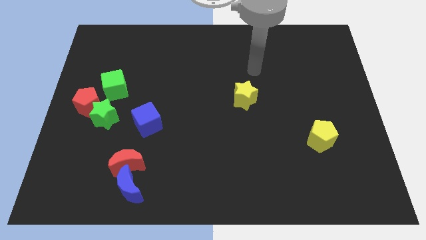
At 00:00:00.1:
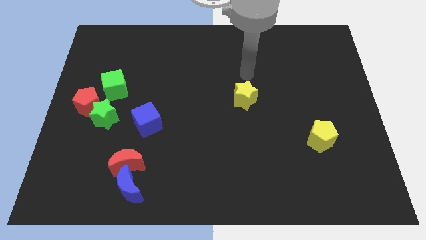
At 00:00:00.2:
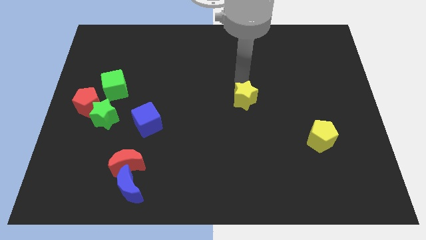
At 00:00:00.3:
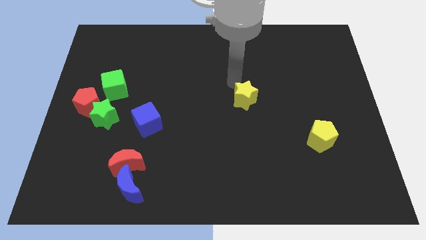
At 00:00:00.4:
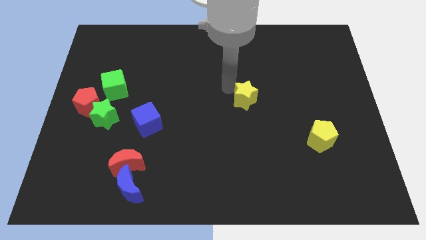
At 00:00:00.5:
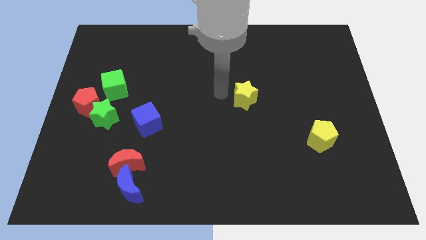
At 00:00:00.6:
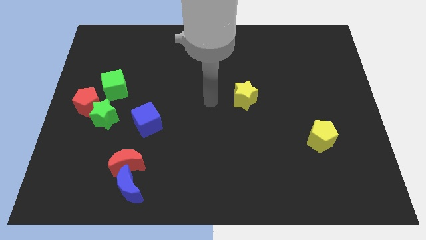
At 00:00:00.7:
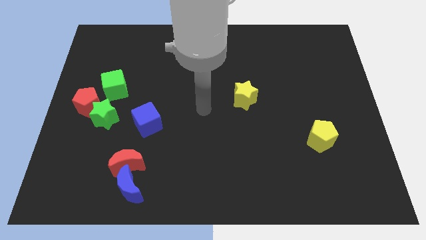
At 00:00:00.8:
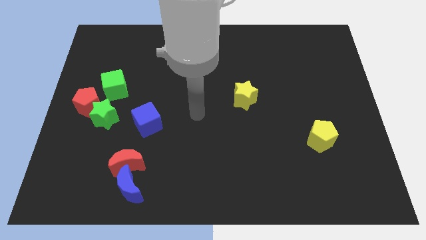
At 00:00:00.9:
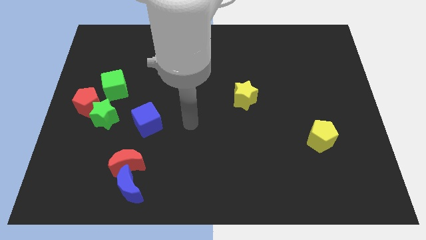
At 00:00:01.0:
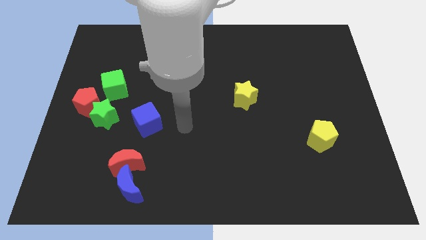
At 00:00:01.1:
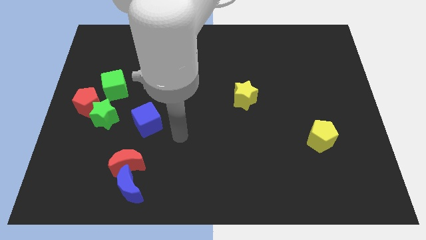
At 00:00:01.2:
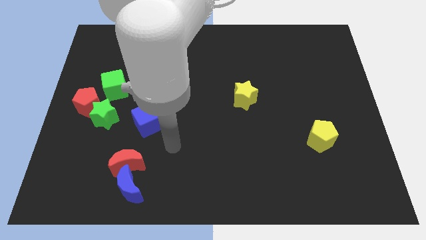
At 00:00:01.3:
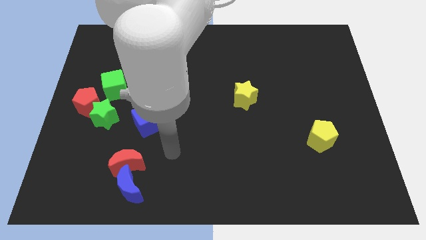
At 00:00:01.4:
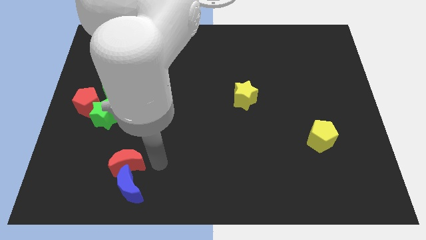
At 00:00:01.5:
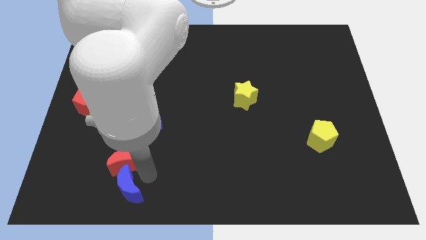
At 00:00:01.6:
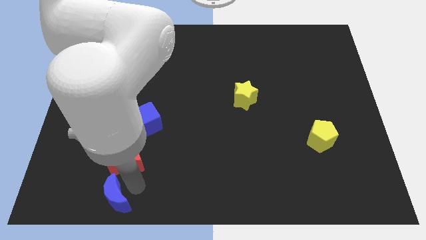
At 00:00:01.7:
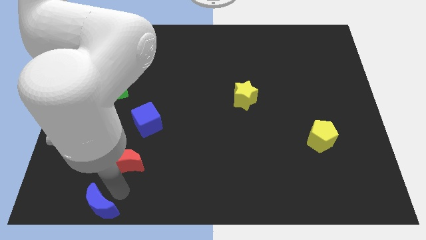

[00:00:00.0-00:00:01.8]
pull the red moon apart from the blue moon

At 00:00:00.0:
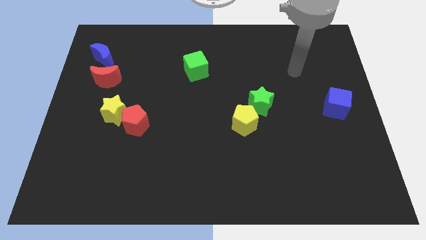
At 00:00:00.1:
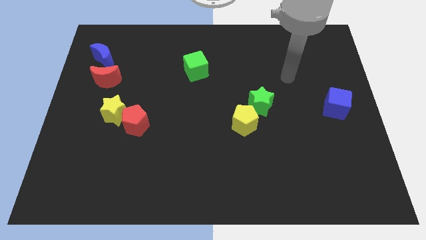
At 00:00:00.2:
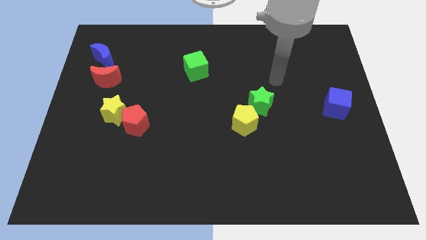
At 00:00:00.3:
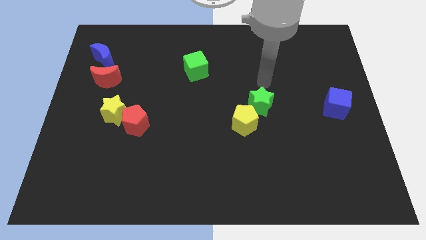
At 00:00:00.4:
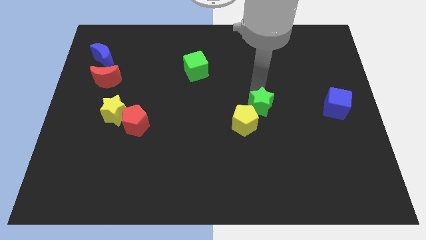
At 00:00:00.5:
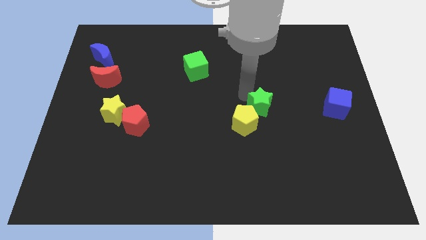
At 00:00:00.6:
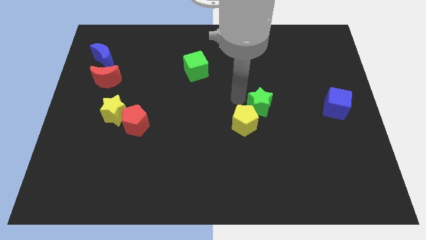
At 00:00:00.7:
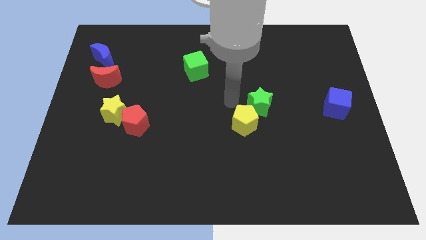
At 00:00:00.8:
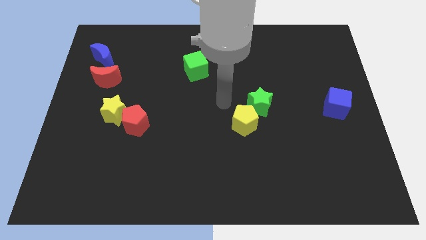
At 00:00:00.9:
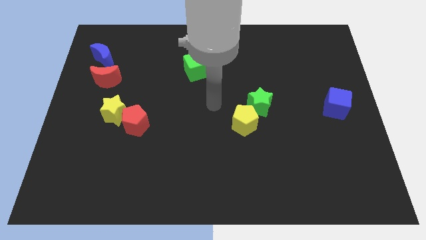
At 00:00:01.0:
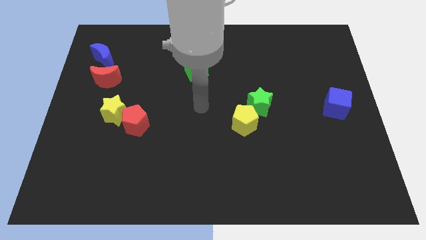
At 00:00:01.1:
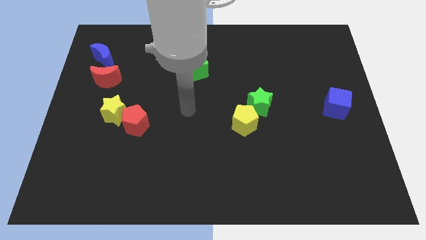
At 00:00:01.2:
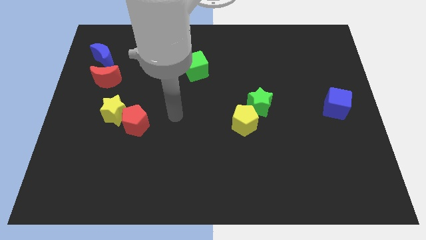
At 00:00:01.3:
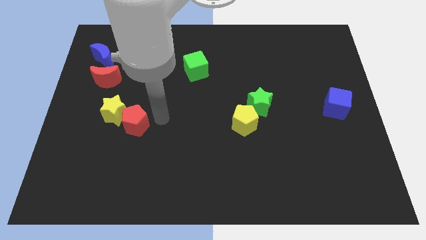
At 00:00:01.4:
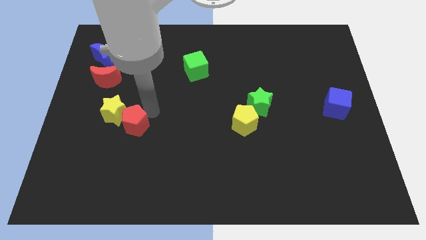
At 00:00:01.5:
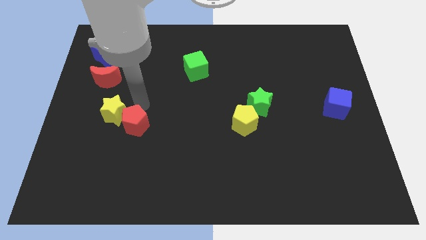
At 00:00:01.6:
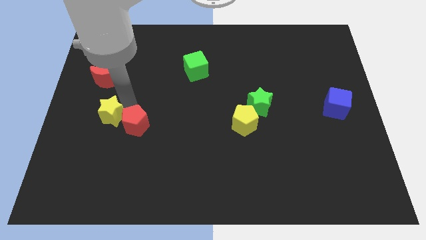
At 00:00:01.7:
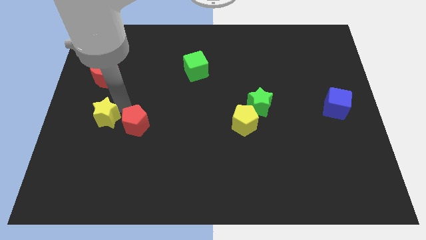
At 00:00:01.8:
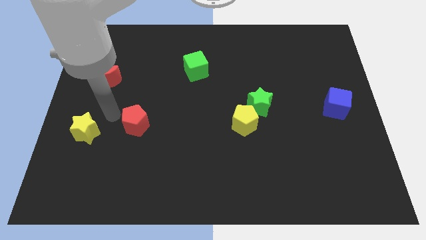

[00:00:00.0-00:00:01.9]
move the red pentagon away from the yellow star

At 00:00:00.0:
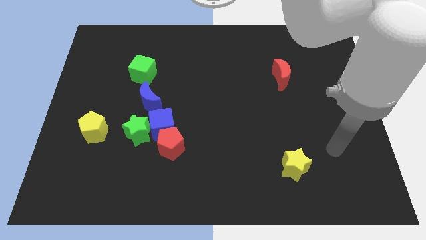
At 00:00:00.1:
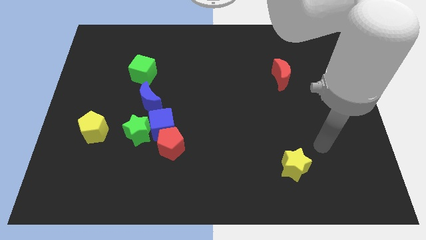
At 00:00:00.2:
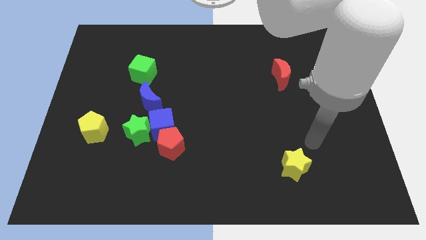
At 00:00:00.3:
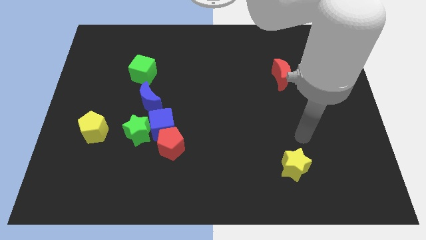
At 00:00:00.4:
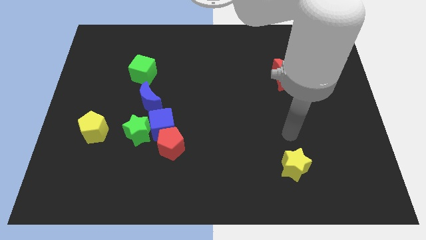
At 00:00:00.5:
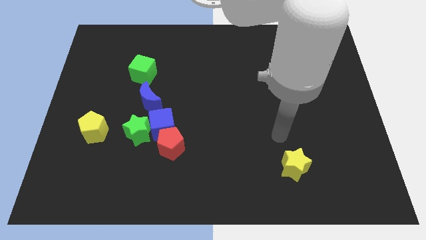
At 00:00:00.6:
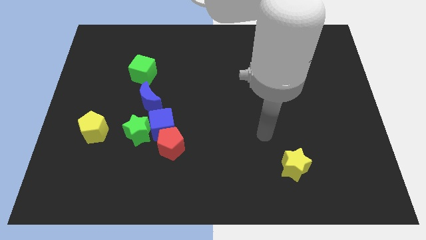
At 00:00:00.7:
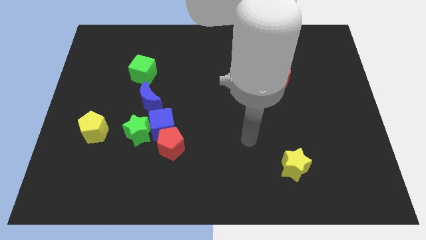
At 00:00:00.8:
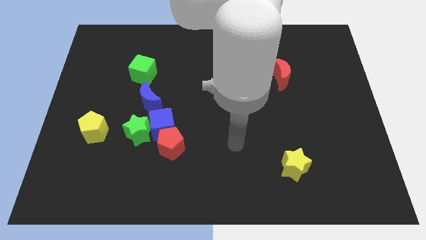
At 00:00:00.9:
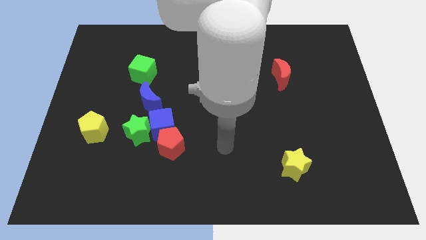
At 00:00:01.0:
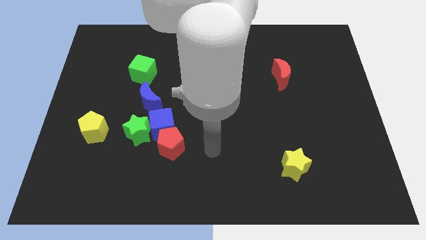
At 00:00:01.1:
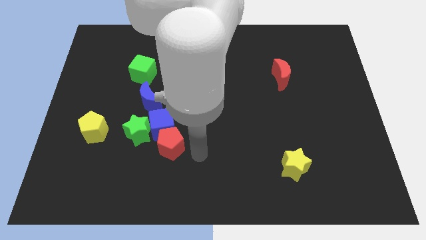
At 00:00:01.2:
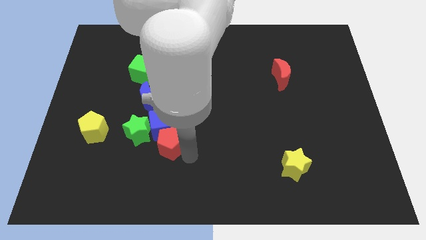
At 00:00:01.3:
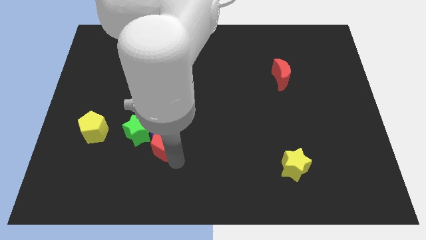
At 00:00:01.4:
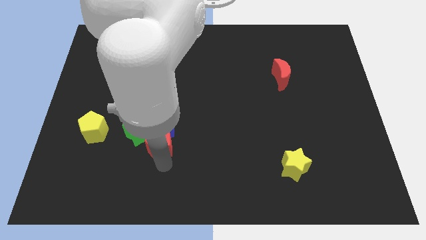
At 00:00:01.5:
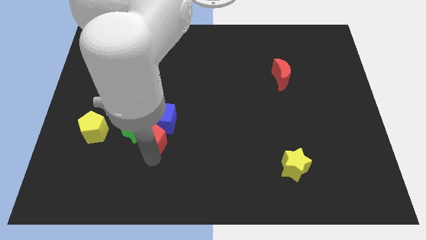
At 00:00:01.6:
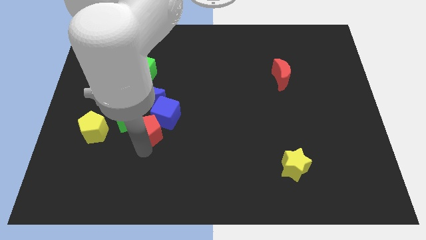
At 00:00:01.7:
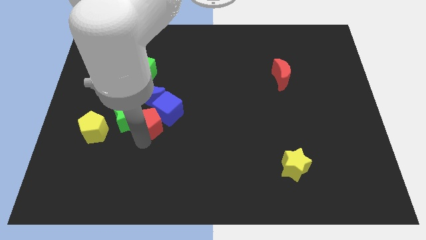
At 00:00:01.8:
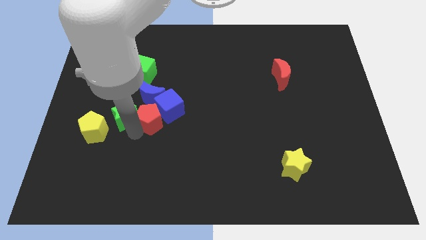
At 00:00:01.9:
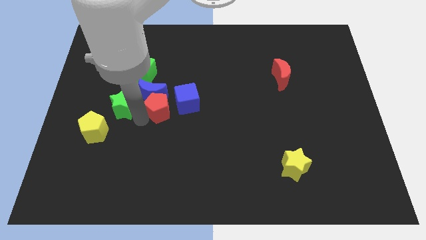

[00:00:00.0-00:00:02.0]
separate the blue cube from the red pentagon, green star, and blue moon

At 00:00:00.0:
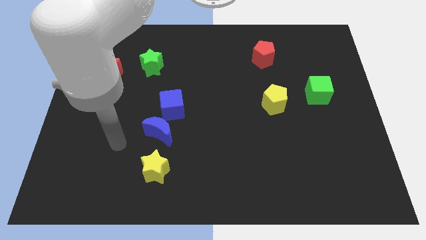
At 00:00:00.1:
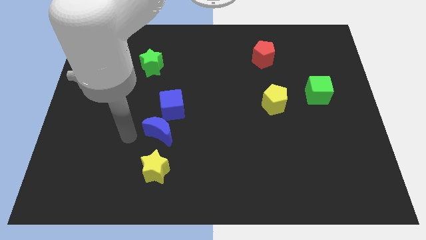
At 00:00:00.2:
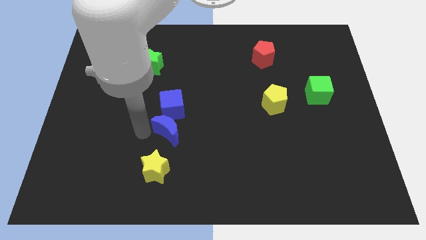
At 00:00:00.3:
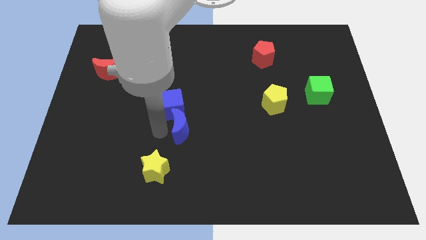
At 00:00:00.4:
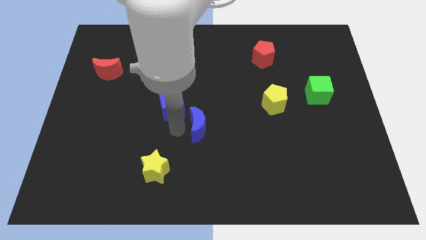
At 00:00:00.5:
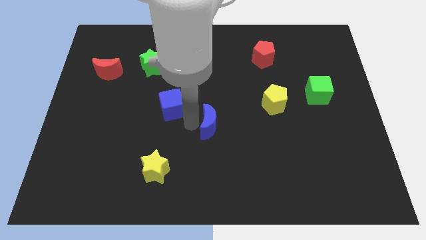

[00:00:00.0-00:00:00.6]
move the blue cube away from the blue moon

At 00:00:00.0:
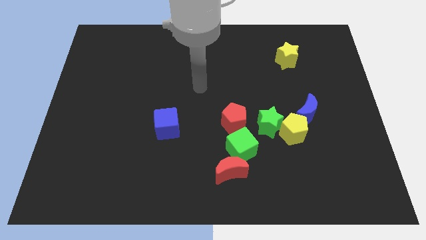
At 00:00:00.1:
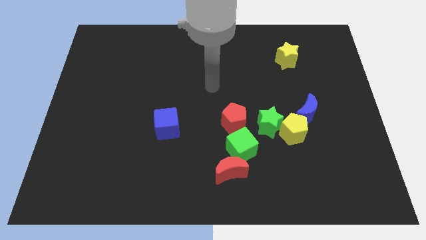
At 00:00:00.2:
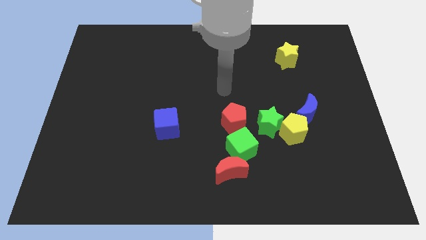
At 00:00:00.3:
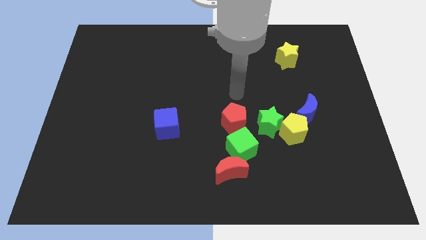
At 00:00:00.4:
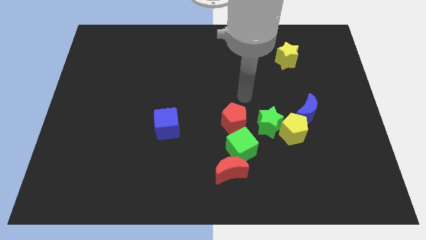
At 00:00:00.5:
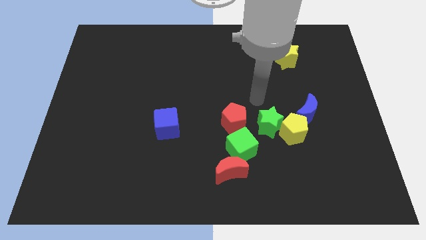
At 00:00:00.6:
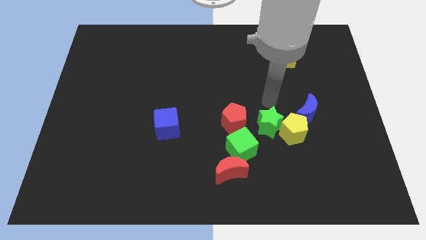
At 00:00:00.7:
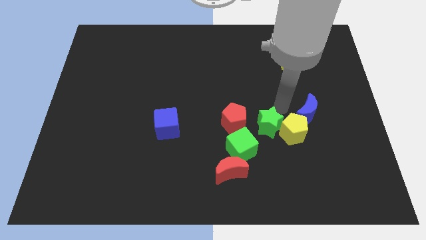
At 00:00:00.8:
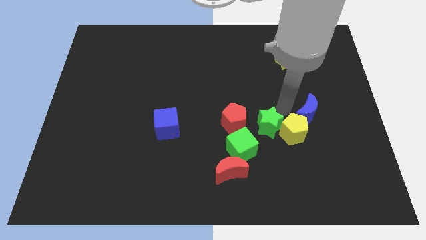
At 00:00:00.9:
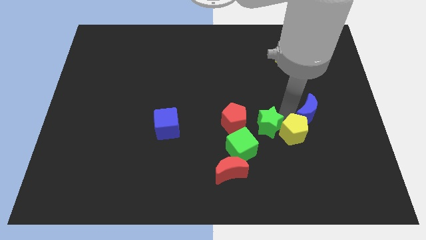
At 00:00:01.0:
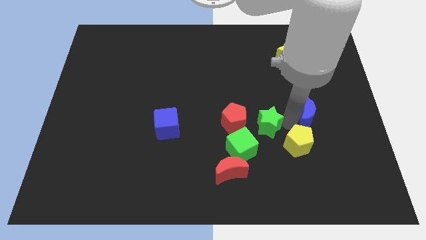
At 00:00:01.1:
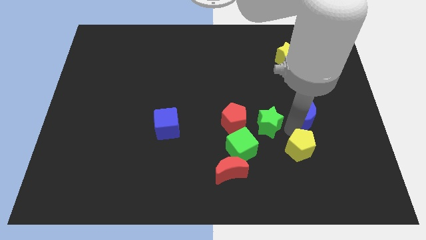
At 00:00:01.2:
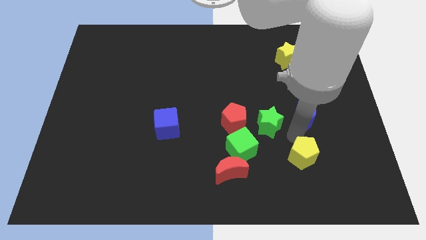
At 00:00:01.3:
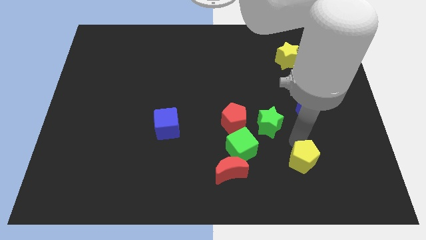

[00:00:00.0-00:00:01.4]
move the yellow pentagon away from the green star and blue moon

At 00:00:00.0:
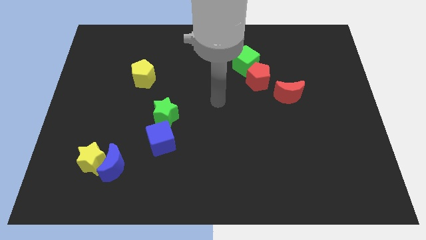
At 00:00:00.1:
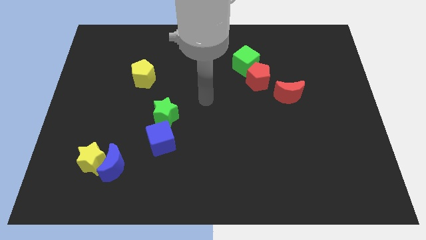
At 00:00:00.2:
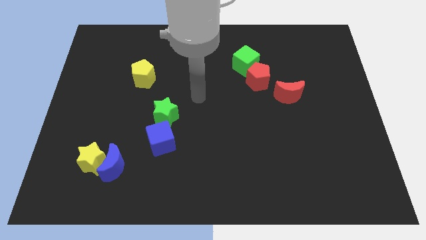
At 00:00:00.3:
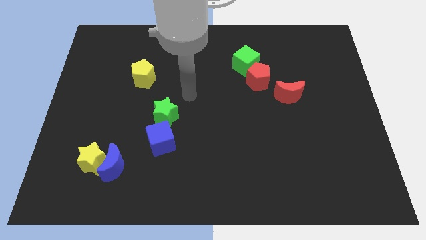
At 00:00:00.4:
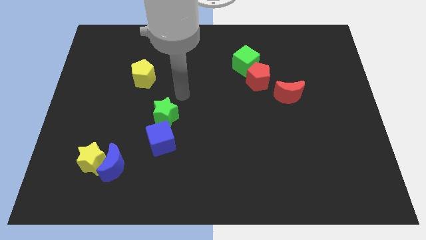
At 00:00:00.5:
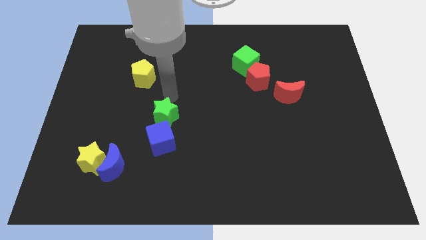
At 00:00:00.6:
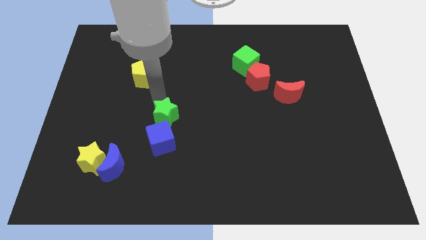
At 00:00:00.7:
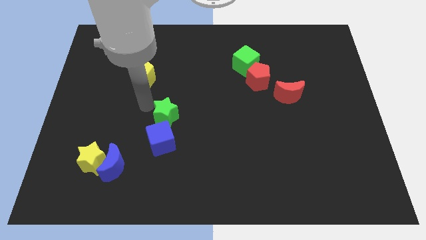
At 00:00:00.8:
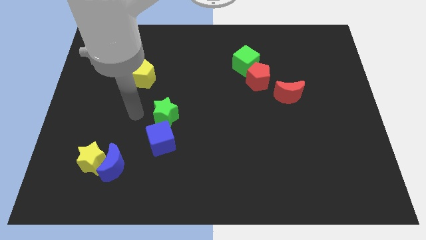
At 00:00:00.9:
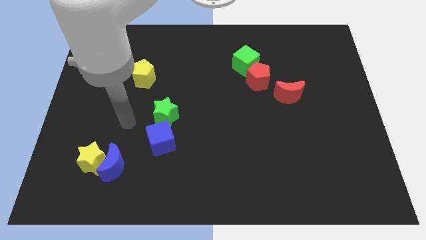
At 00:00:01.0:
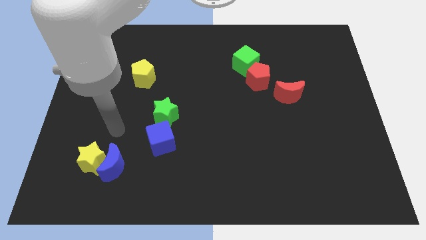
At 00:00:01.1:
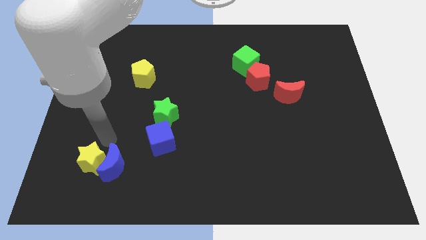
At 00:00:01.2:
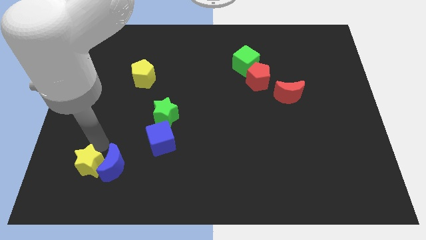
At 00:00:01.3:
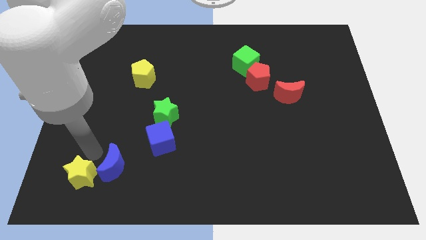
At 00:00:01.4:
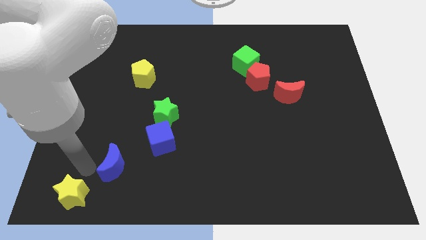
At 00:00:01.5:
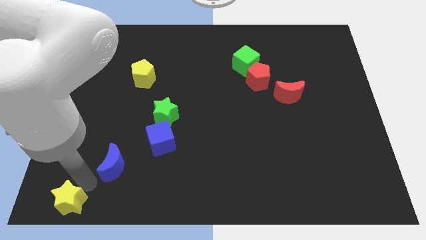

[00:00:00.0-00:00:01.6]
move the blue moon away from the yellow star
